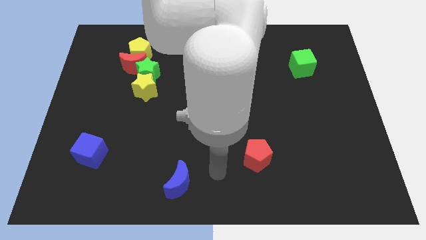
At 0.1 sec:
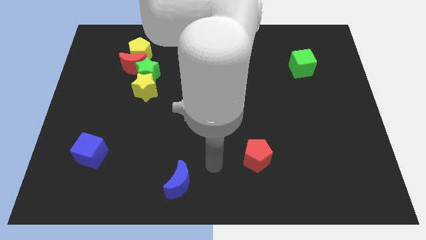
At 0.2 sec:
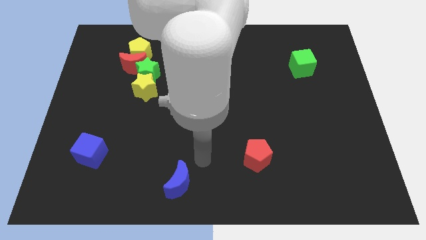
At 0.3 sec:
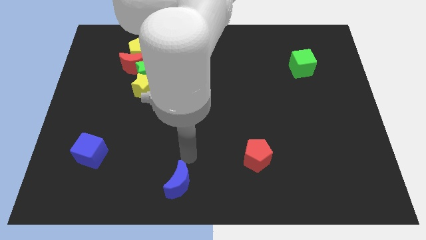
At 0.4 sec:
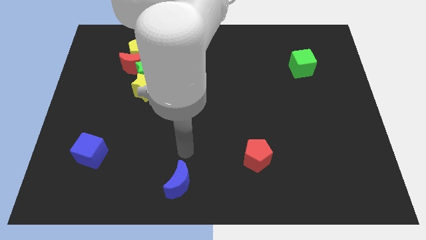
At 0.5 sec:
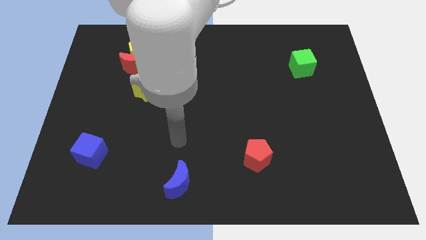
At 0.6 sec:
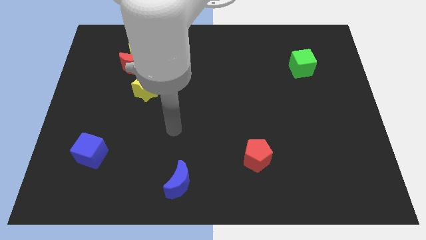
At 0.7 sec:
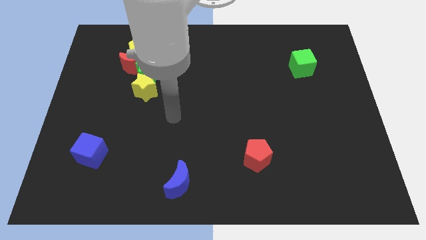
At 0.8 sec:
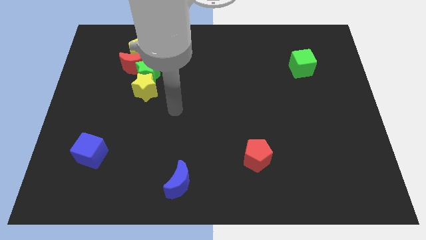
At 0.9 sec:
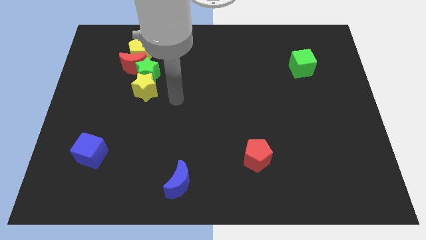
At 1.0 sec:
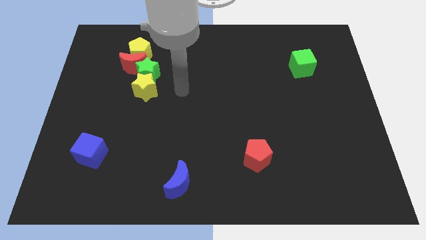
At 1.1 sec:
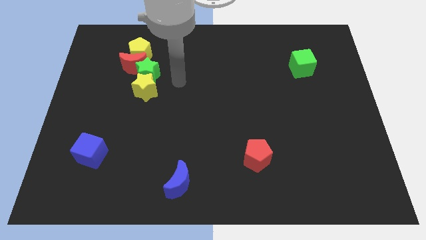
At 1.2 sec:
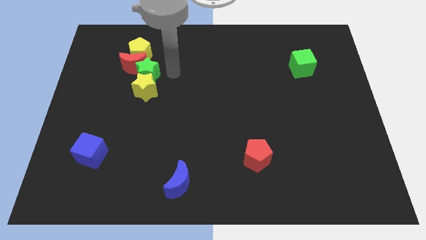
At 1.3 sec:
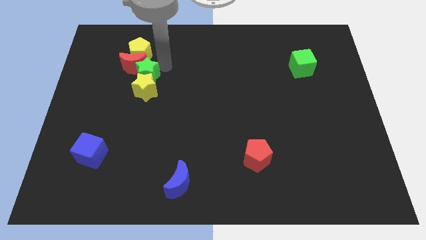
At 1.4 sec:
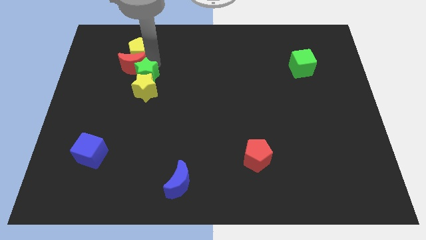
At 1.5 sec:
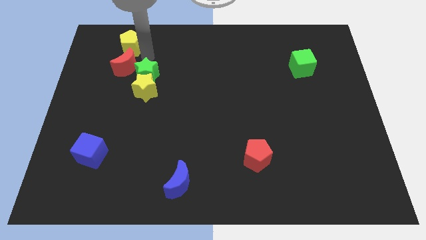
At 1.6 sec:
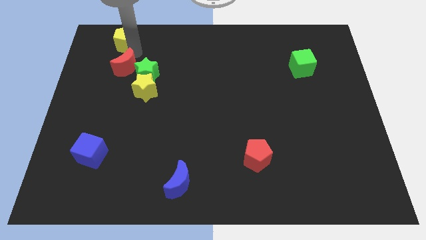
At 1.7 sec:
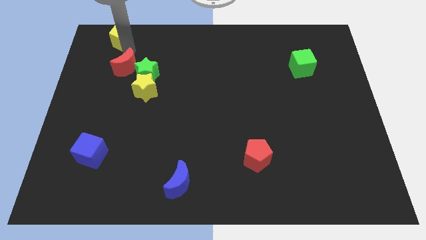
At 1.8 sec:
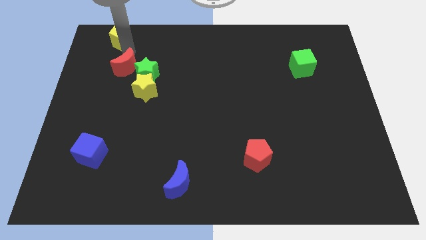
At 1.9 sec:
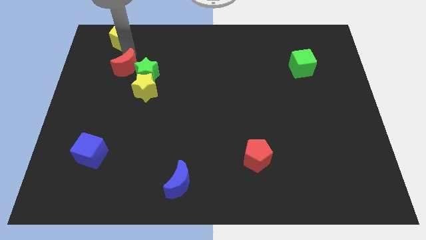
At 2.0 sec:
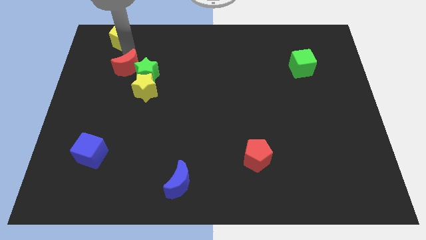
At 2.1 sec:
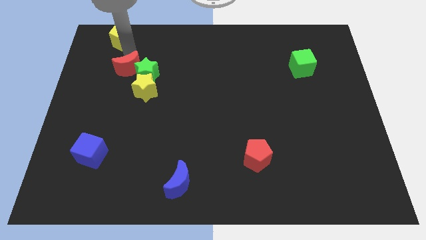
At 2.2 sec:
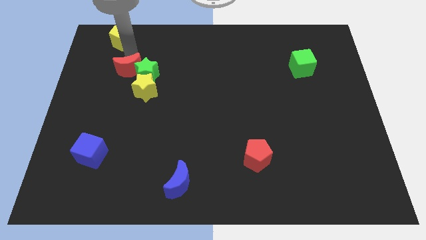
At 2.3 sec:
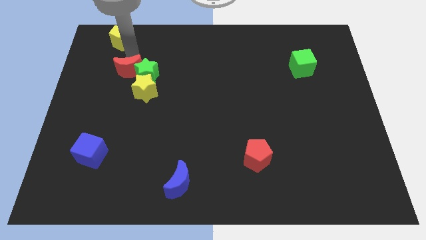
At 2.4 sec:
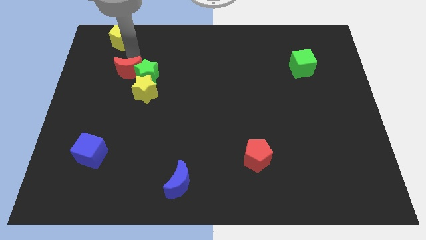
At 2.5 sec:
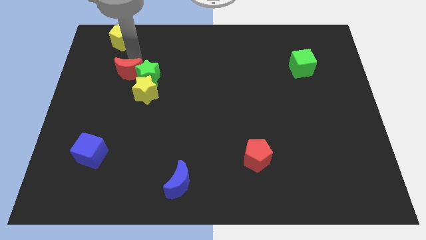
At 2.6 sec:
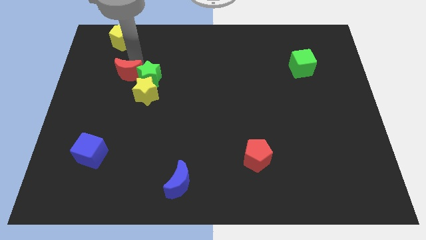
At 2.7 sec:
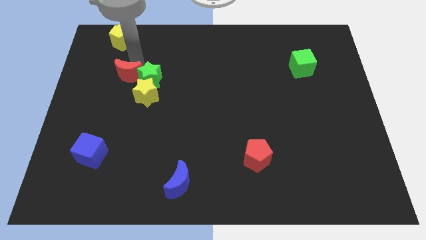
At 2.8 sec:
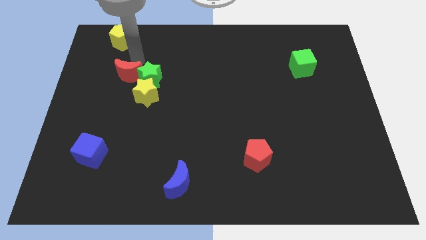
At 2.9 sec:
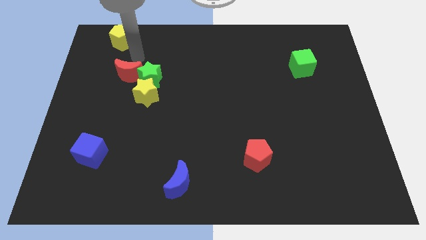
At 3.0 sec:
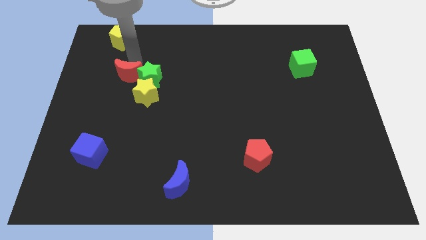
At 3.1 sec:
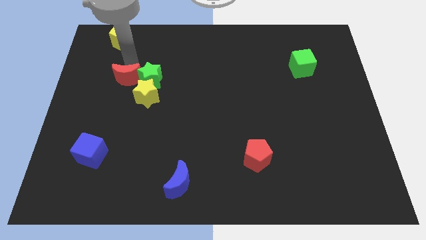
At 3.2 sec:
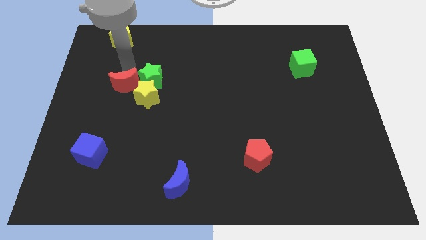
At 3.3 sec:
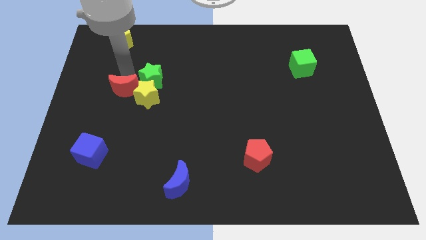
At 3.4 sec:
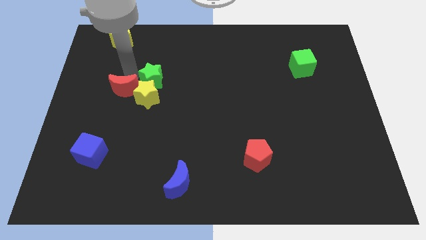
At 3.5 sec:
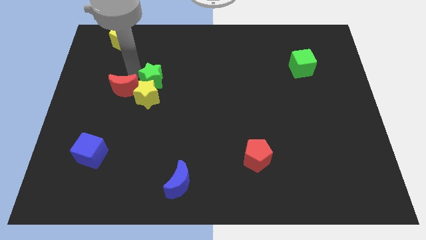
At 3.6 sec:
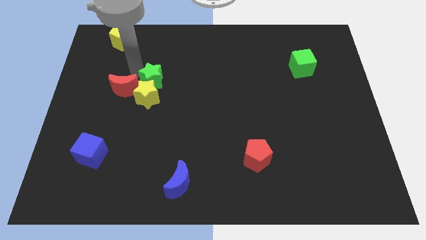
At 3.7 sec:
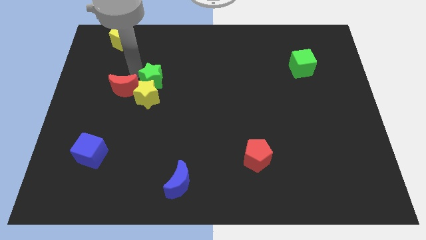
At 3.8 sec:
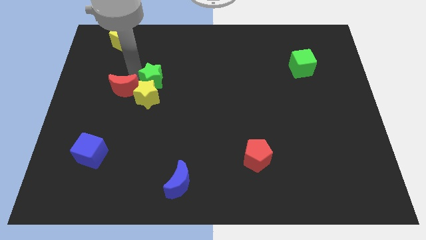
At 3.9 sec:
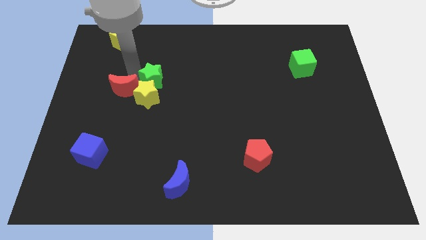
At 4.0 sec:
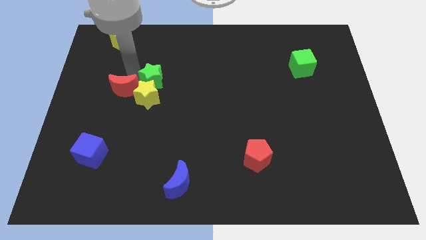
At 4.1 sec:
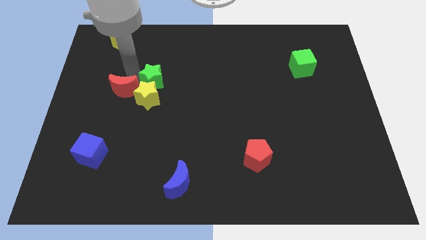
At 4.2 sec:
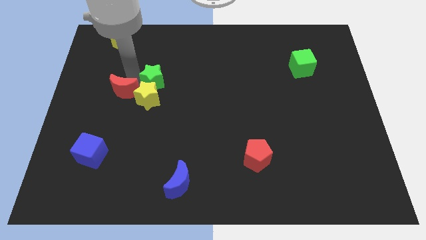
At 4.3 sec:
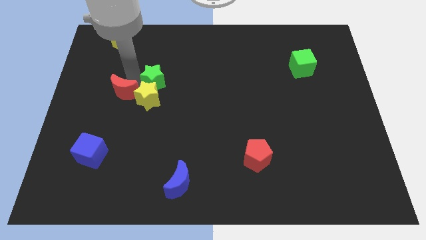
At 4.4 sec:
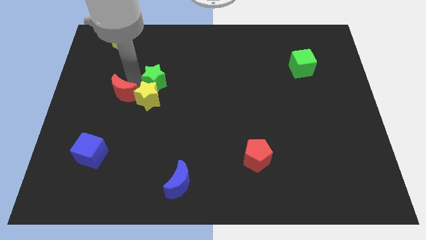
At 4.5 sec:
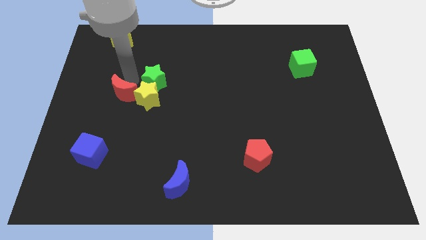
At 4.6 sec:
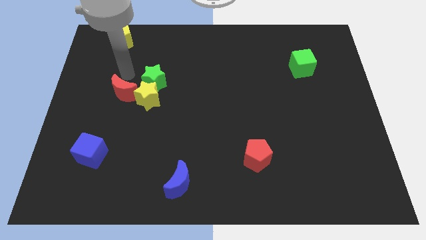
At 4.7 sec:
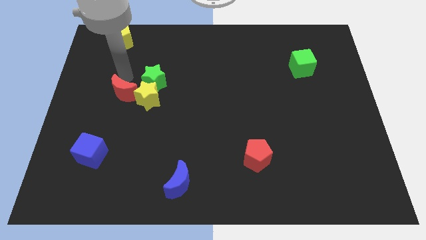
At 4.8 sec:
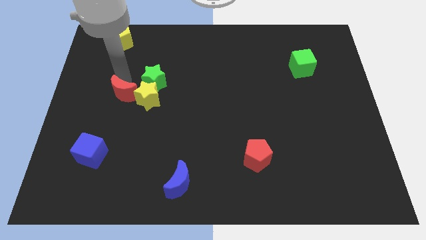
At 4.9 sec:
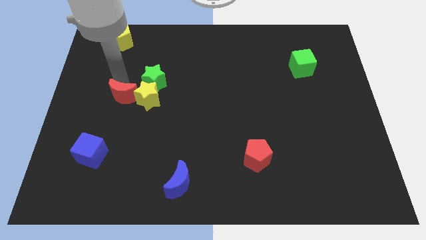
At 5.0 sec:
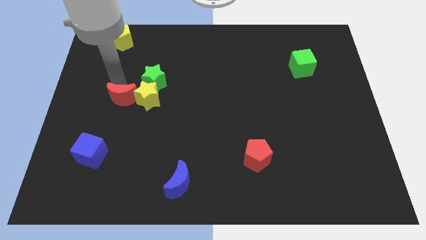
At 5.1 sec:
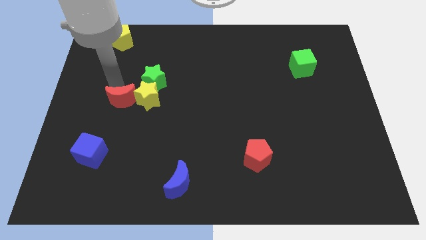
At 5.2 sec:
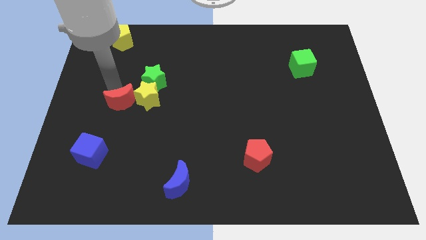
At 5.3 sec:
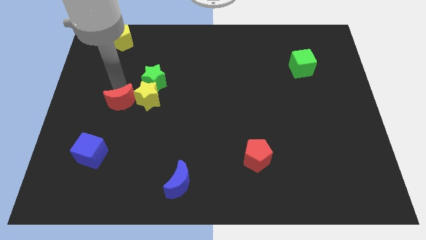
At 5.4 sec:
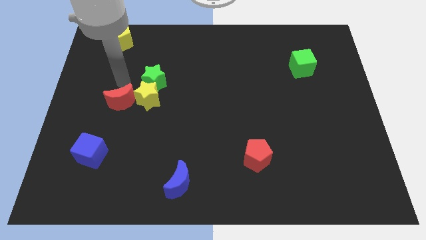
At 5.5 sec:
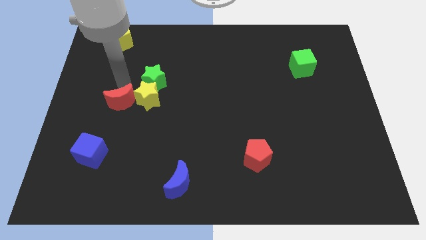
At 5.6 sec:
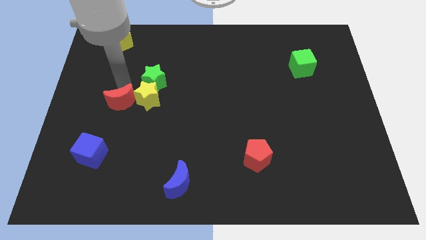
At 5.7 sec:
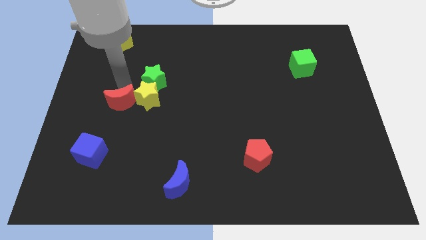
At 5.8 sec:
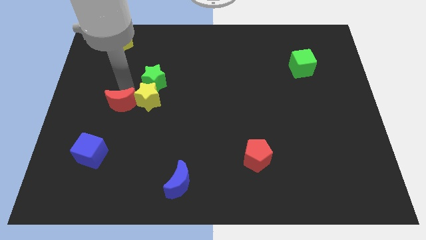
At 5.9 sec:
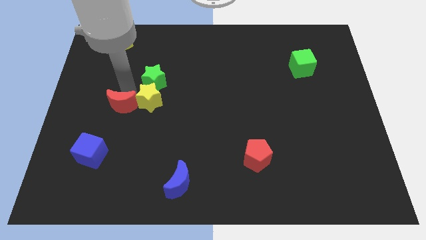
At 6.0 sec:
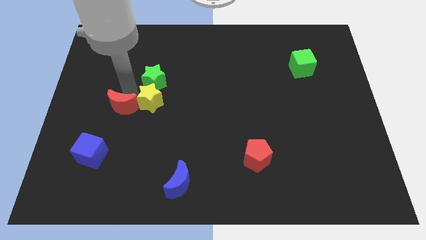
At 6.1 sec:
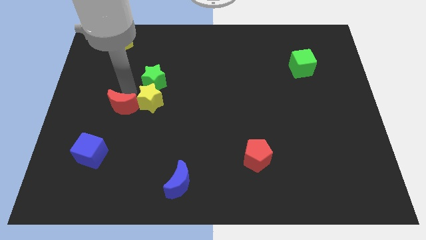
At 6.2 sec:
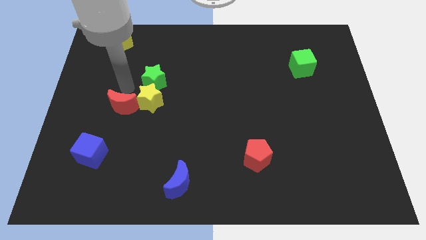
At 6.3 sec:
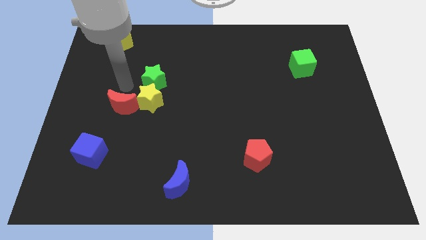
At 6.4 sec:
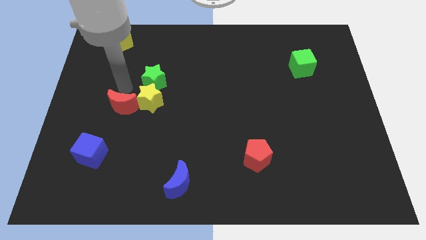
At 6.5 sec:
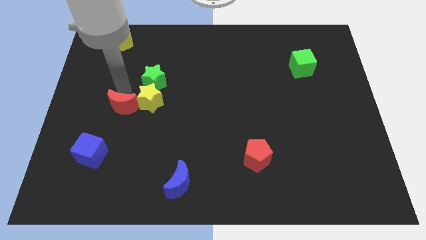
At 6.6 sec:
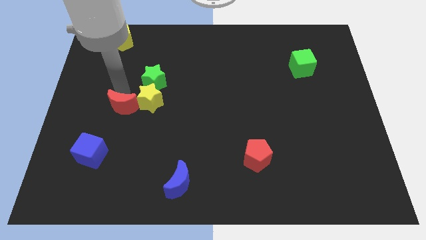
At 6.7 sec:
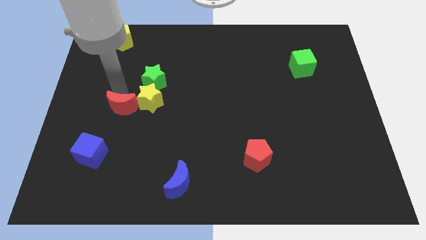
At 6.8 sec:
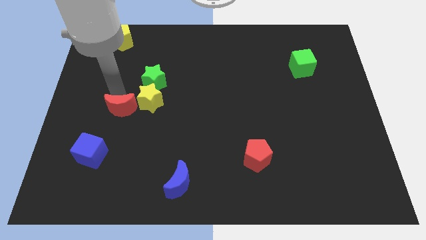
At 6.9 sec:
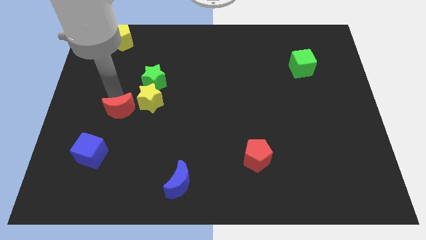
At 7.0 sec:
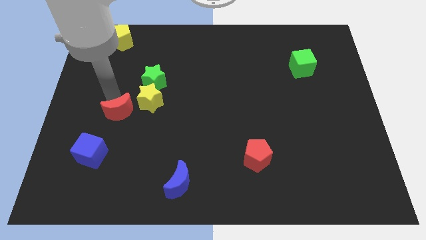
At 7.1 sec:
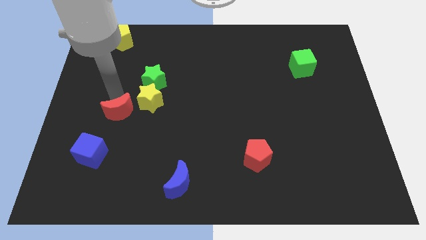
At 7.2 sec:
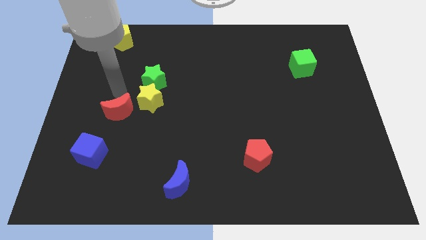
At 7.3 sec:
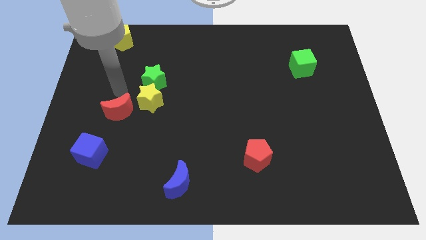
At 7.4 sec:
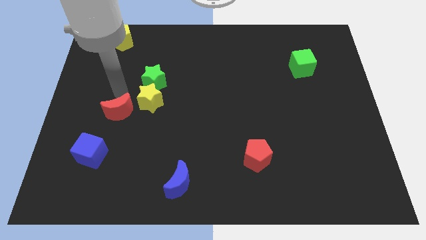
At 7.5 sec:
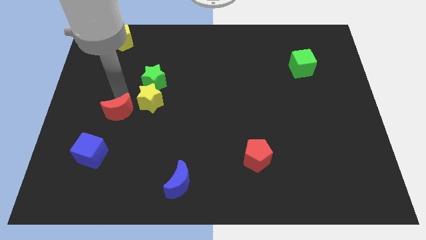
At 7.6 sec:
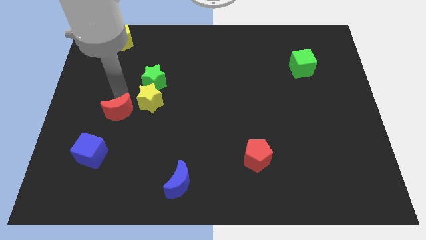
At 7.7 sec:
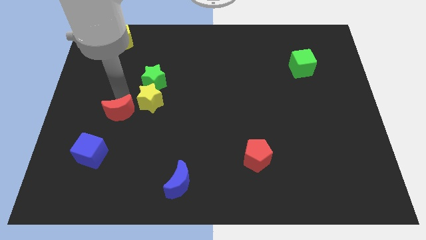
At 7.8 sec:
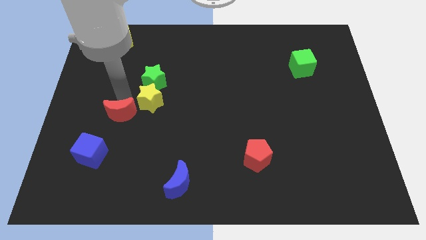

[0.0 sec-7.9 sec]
push the red moon diagonally up and to the right of the blue cube
